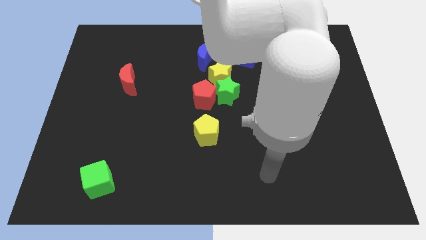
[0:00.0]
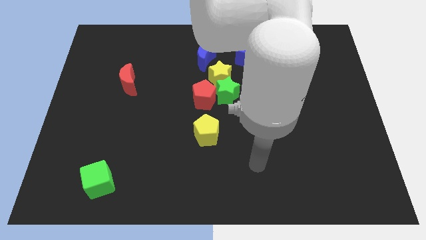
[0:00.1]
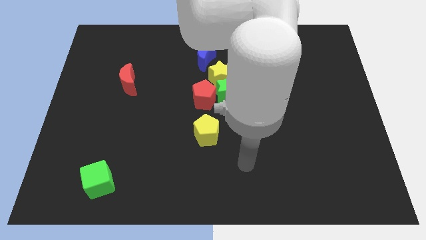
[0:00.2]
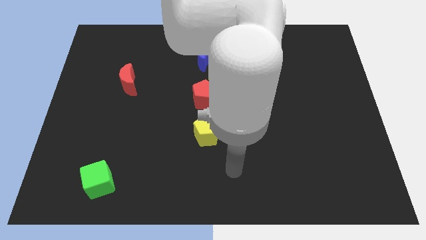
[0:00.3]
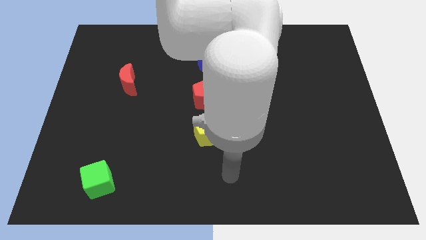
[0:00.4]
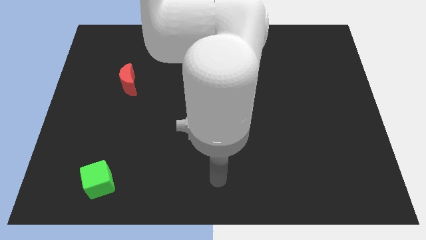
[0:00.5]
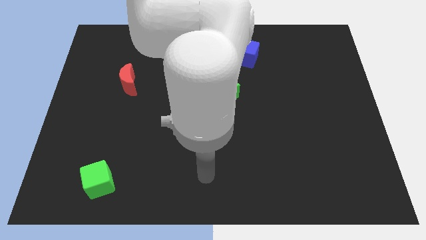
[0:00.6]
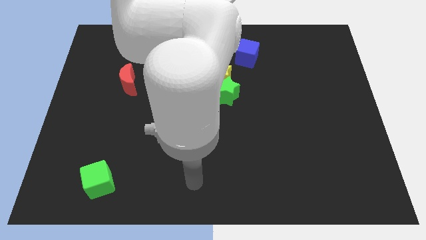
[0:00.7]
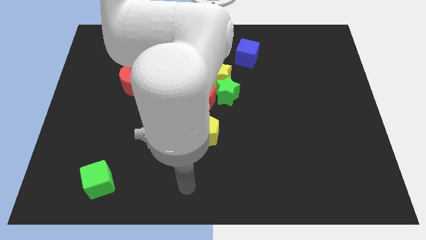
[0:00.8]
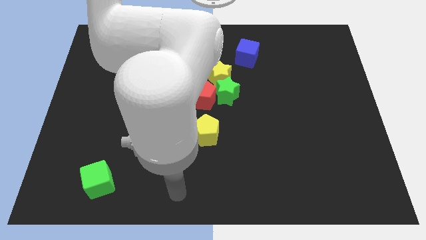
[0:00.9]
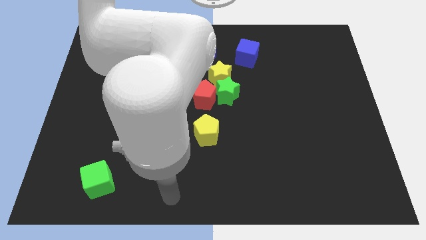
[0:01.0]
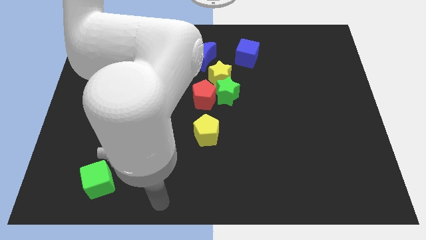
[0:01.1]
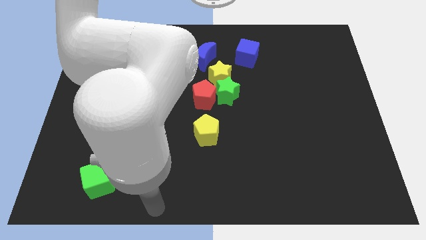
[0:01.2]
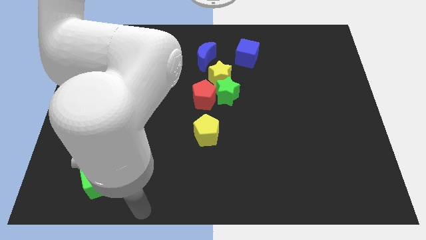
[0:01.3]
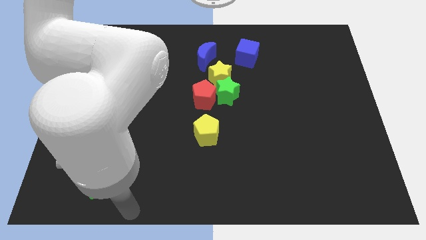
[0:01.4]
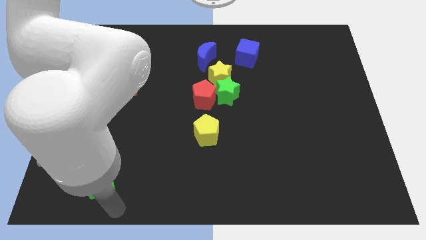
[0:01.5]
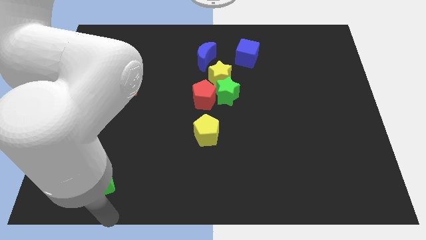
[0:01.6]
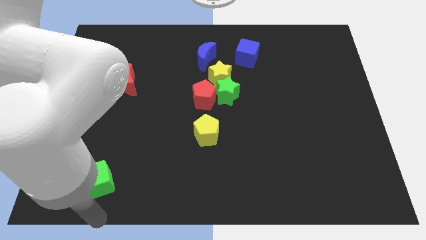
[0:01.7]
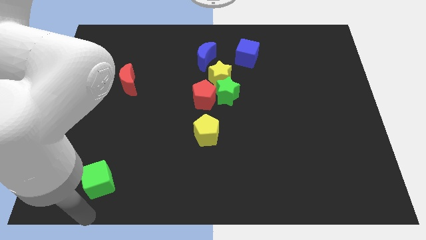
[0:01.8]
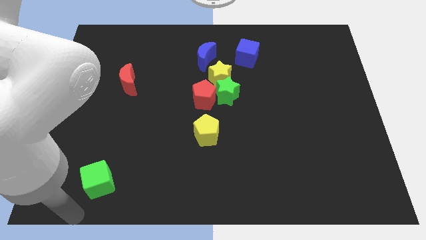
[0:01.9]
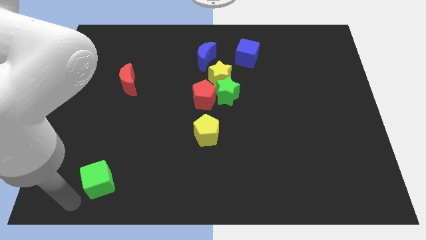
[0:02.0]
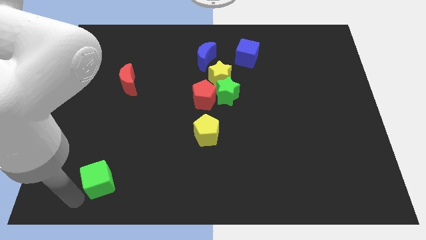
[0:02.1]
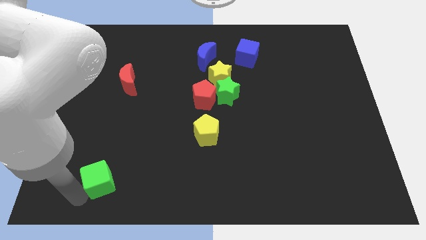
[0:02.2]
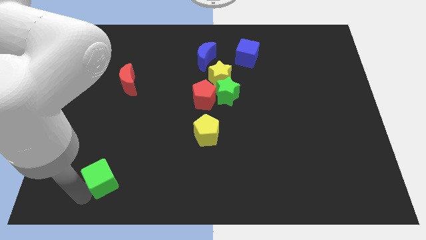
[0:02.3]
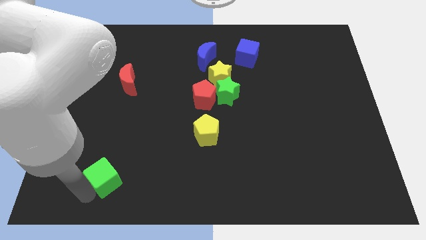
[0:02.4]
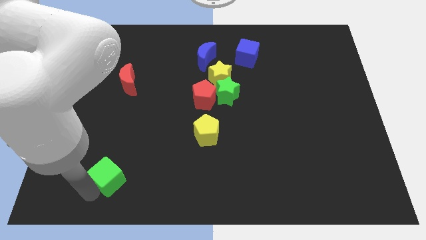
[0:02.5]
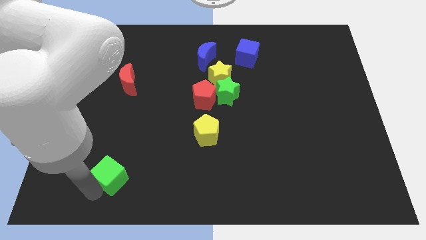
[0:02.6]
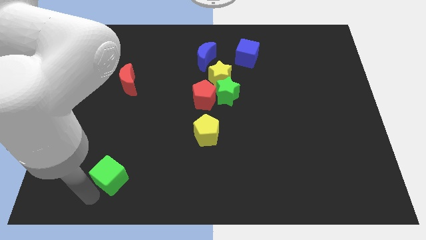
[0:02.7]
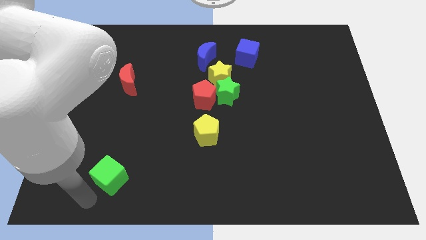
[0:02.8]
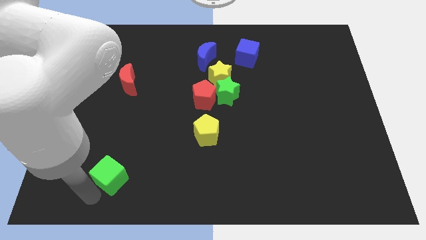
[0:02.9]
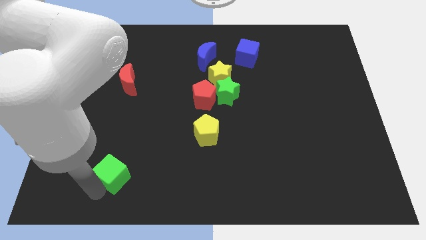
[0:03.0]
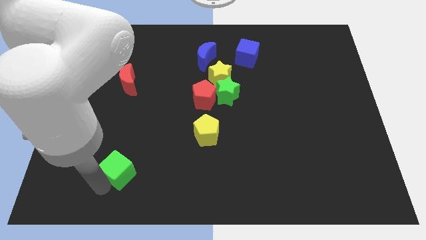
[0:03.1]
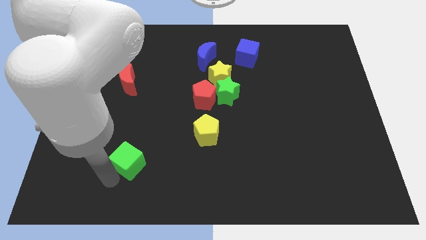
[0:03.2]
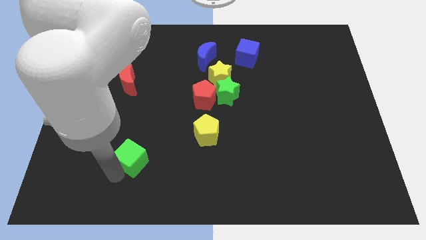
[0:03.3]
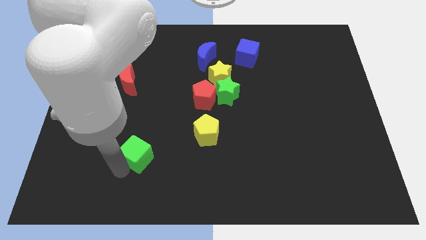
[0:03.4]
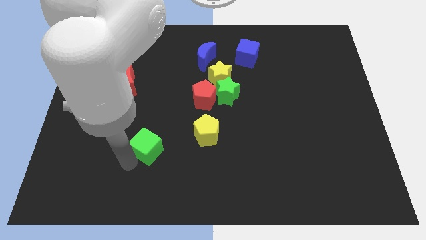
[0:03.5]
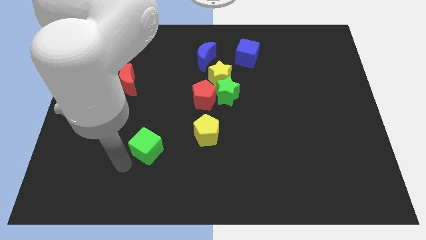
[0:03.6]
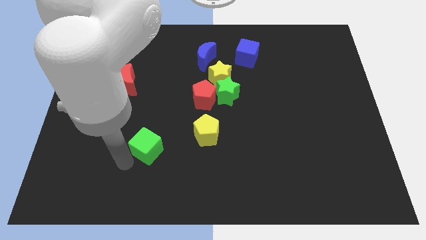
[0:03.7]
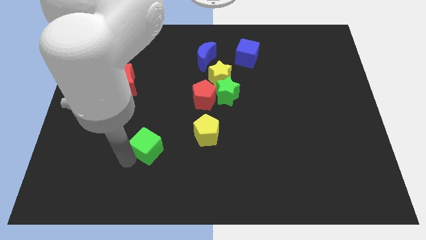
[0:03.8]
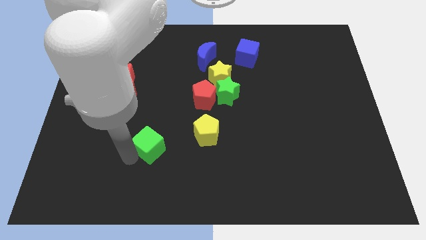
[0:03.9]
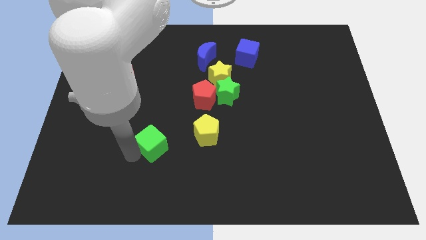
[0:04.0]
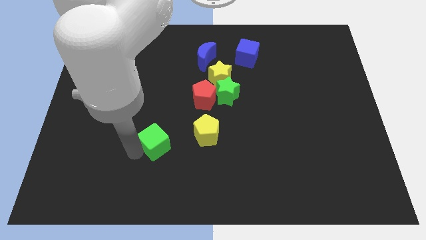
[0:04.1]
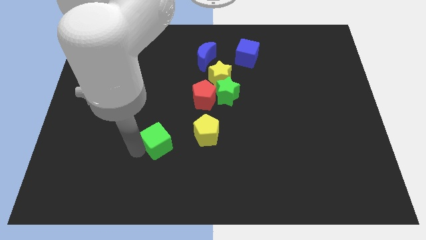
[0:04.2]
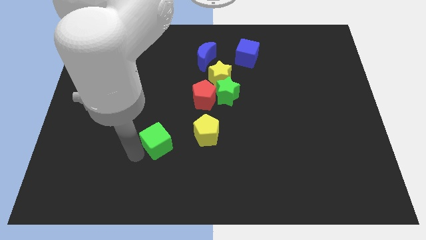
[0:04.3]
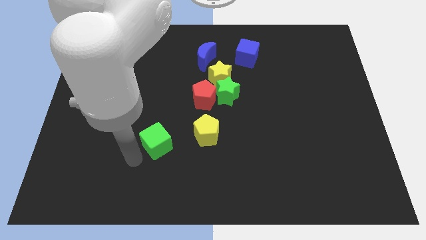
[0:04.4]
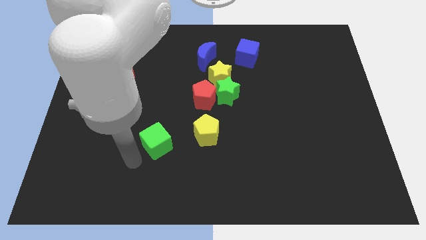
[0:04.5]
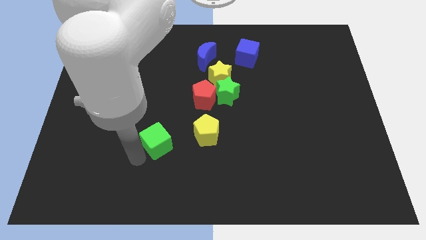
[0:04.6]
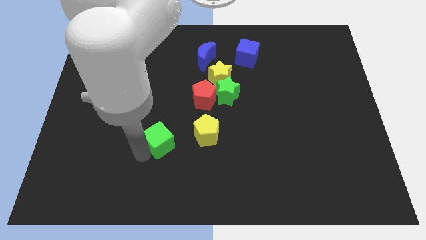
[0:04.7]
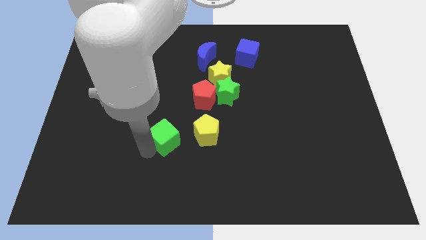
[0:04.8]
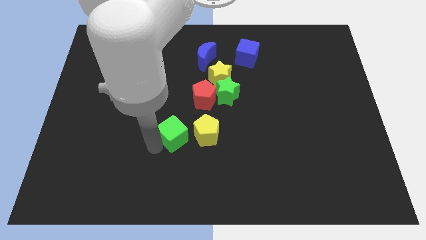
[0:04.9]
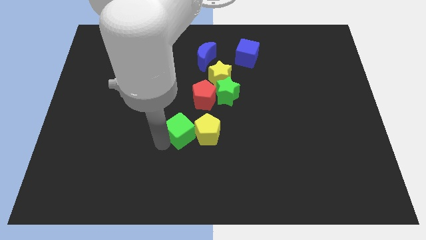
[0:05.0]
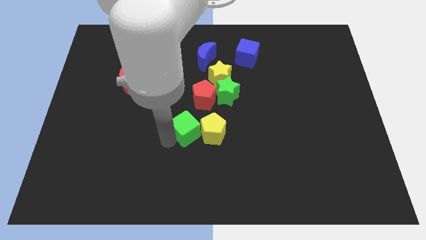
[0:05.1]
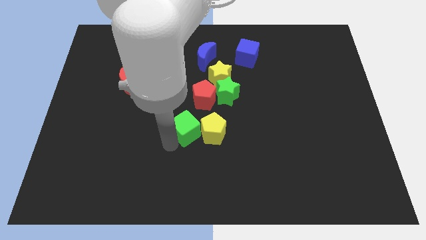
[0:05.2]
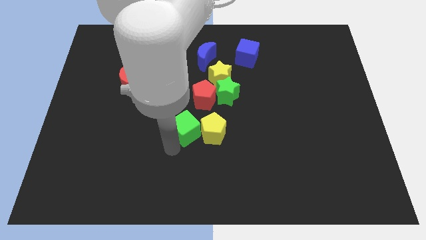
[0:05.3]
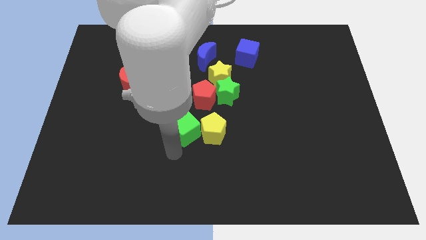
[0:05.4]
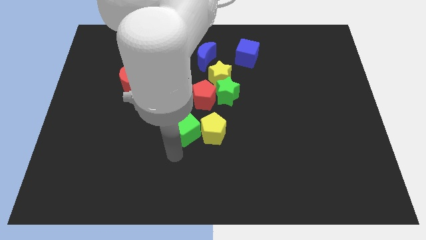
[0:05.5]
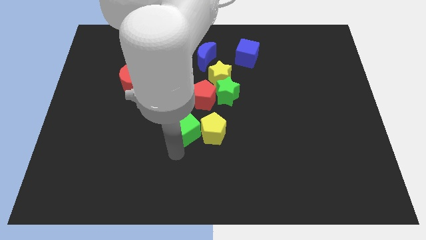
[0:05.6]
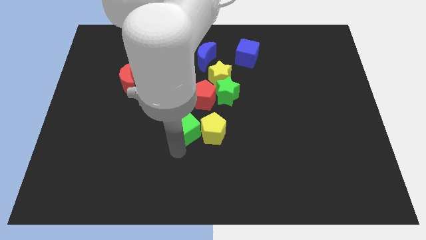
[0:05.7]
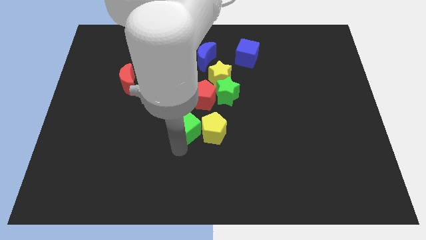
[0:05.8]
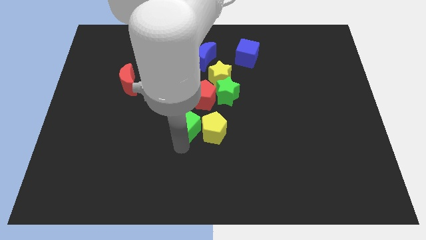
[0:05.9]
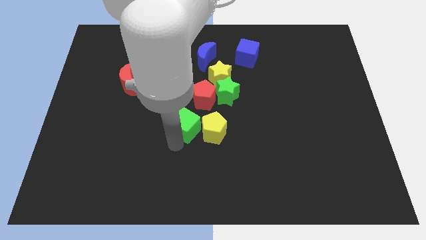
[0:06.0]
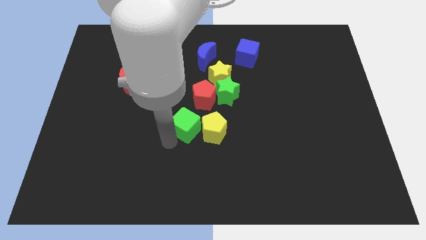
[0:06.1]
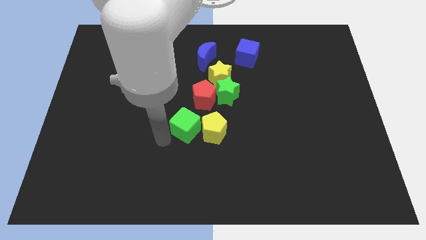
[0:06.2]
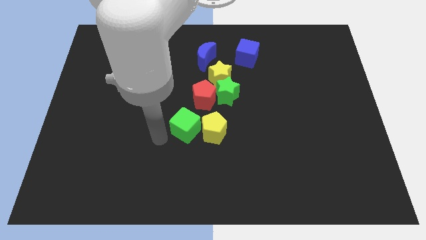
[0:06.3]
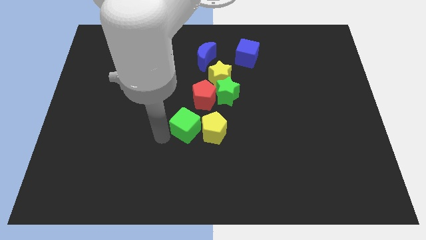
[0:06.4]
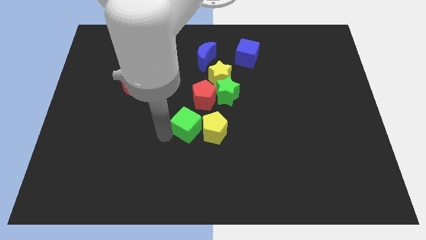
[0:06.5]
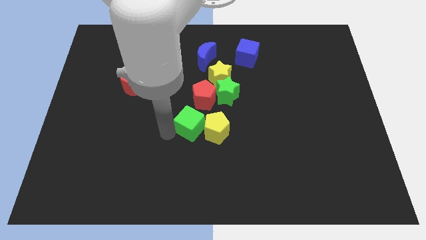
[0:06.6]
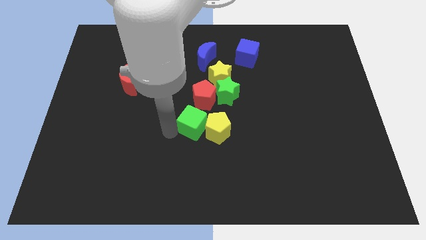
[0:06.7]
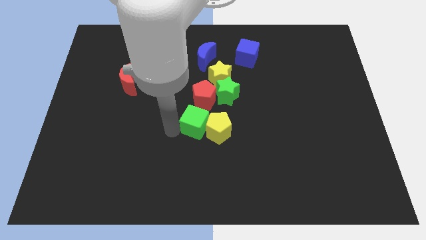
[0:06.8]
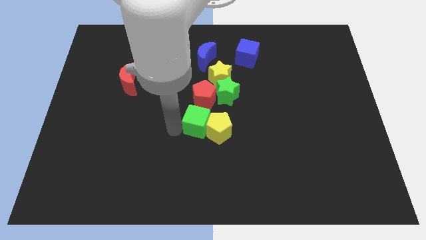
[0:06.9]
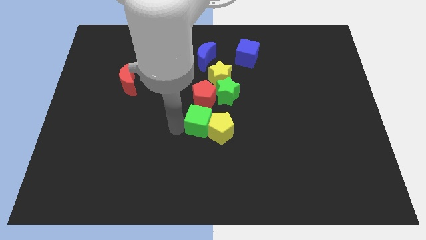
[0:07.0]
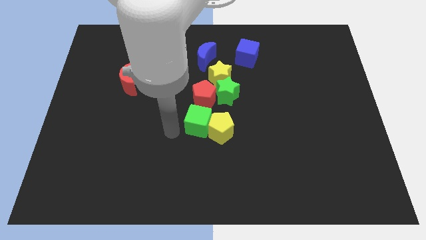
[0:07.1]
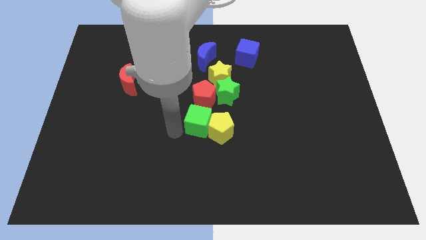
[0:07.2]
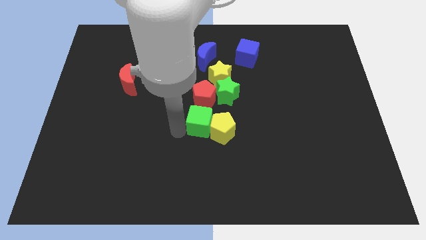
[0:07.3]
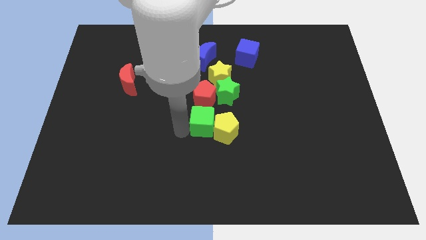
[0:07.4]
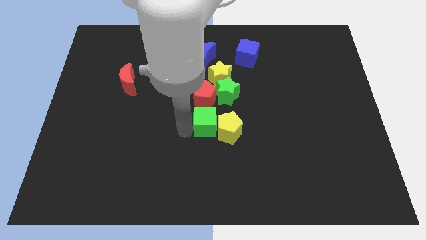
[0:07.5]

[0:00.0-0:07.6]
move the green cube to the bottom right side of the red pentagon
